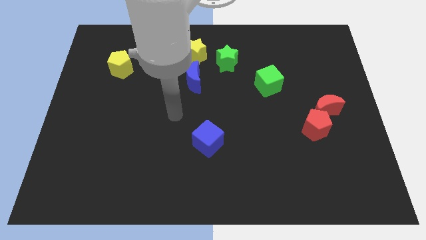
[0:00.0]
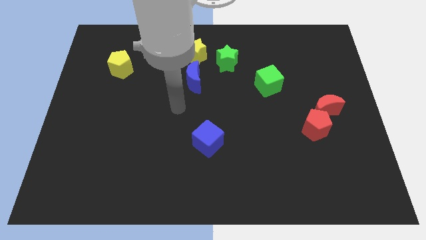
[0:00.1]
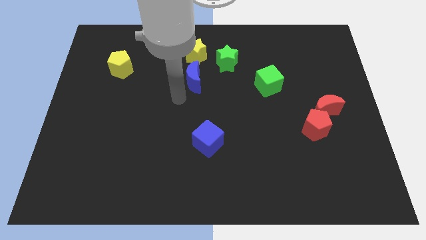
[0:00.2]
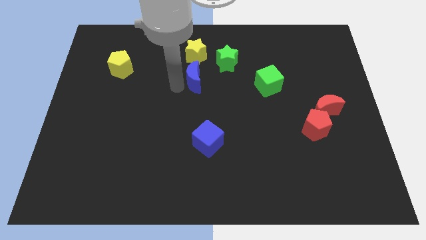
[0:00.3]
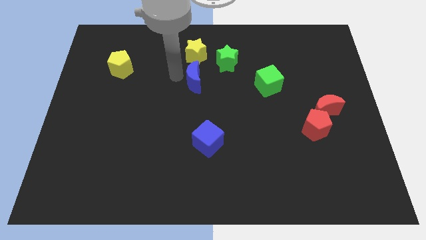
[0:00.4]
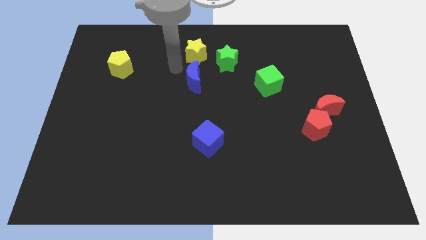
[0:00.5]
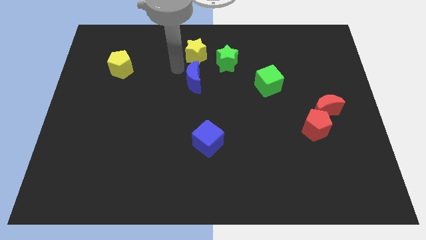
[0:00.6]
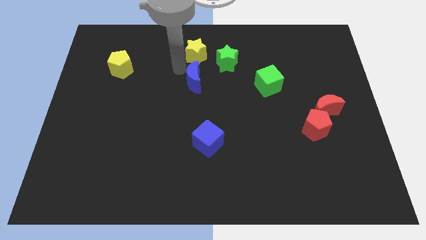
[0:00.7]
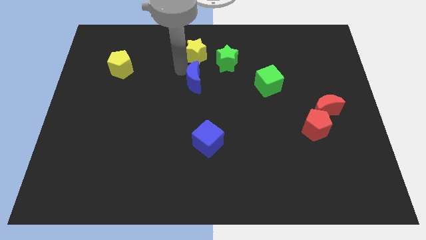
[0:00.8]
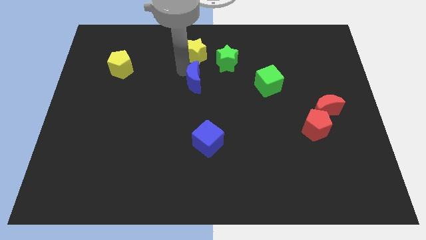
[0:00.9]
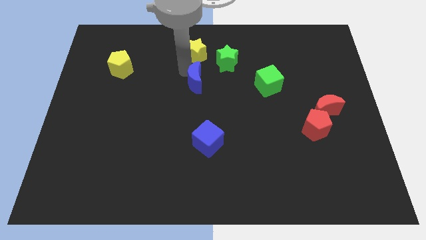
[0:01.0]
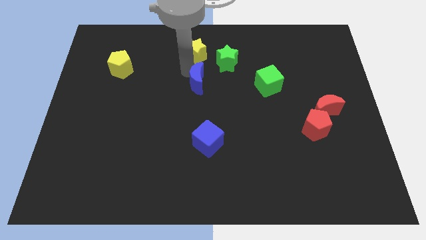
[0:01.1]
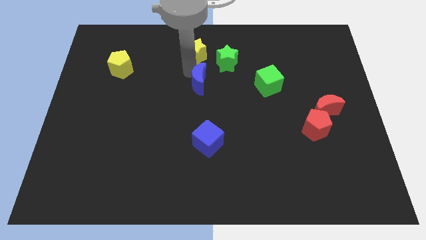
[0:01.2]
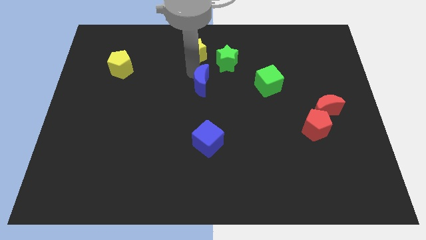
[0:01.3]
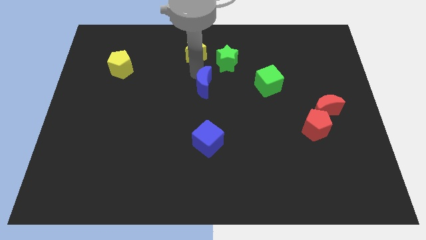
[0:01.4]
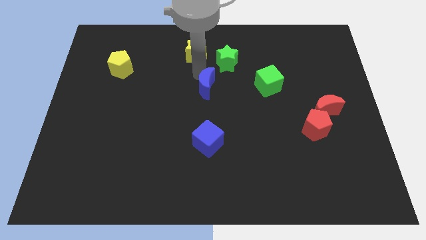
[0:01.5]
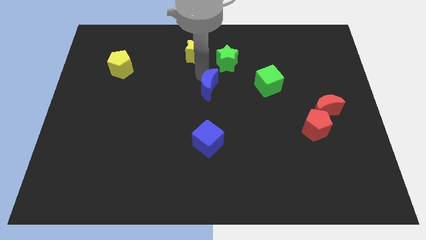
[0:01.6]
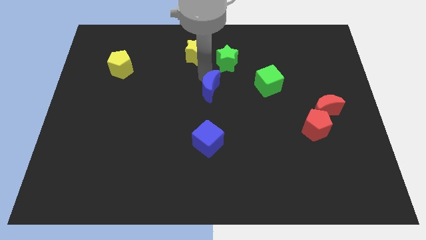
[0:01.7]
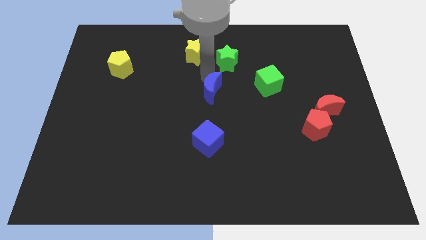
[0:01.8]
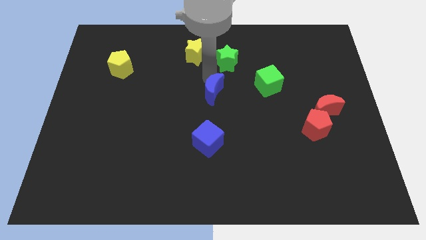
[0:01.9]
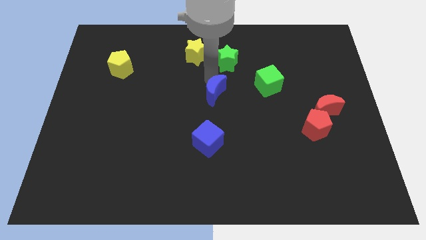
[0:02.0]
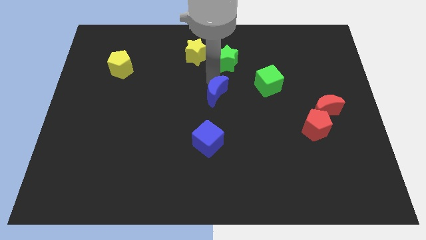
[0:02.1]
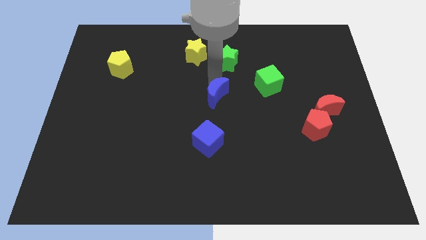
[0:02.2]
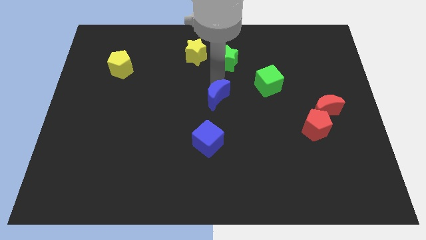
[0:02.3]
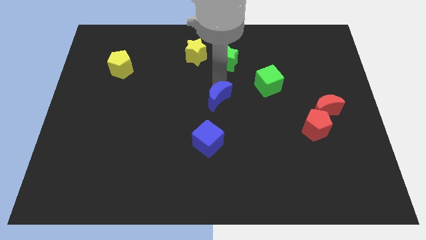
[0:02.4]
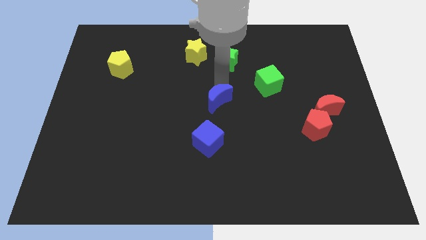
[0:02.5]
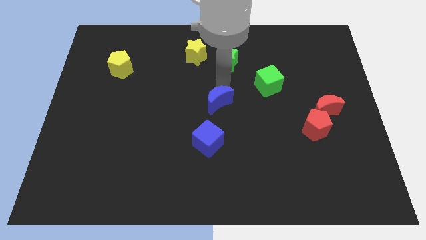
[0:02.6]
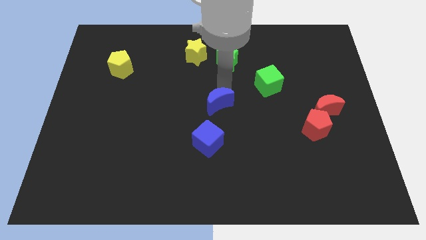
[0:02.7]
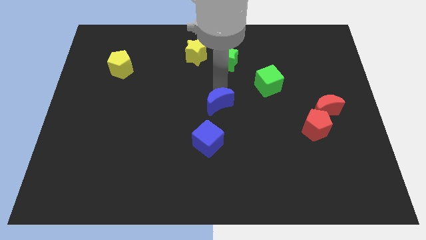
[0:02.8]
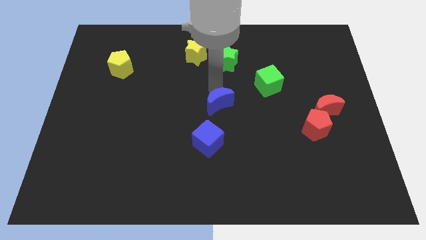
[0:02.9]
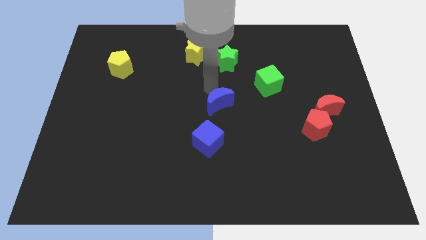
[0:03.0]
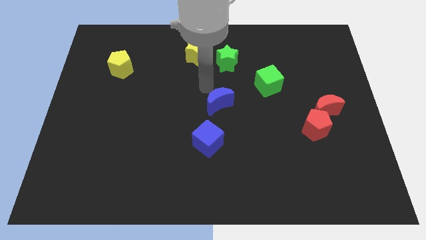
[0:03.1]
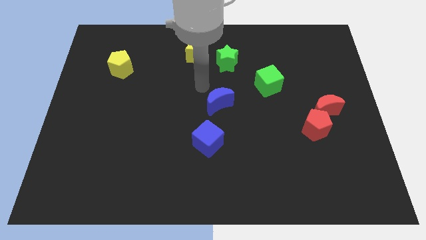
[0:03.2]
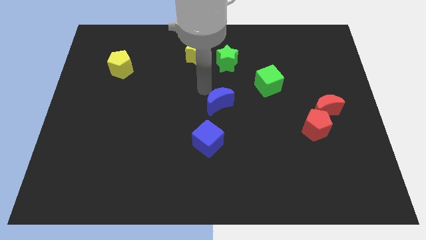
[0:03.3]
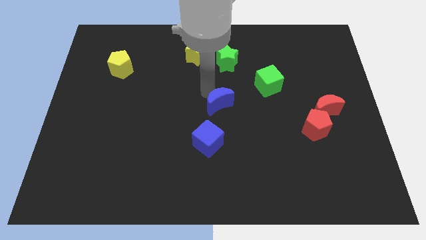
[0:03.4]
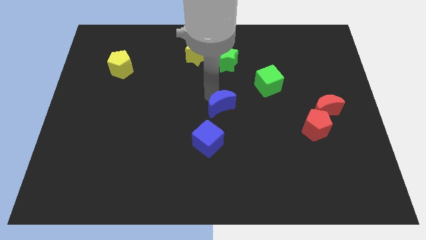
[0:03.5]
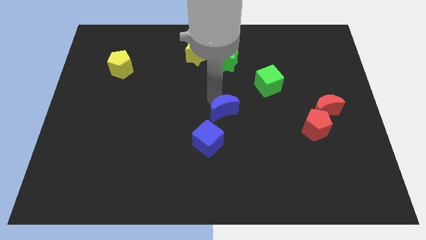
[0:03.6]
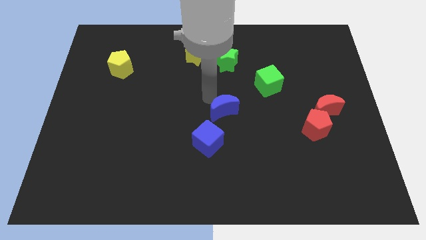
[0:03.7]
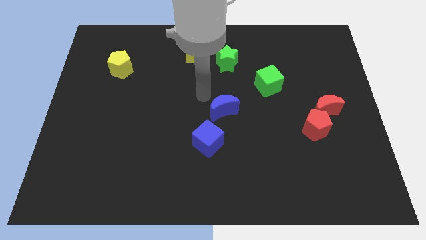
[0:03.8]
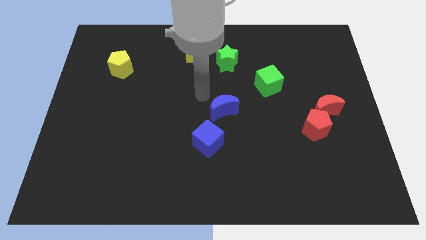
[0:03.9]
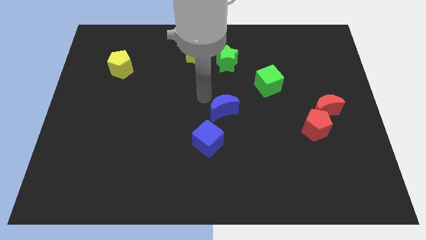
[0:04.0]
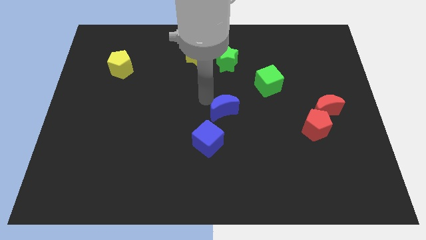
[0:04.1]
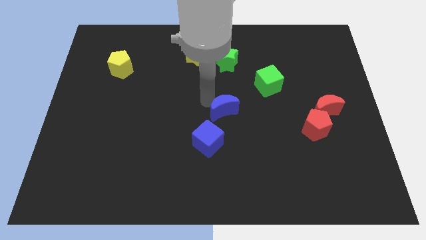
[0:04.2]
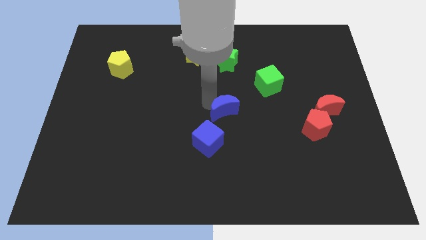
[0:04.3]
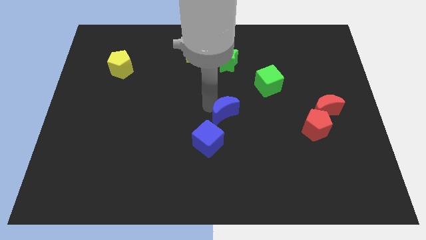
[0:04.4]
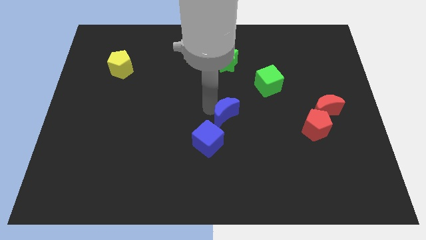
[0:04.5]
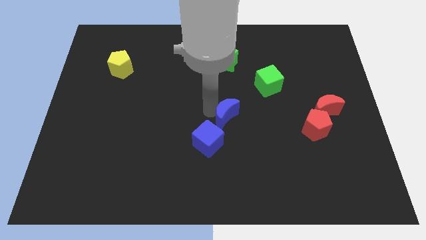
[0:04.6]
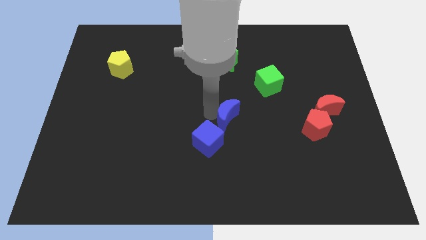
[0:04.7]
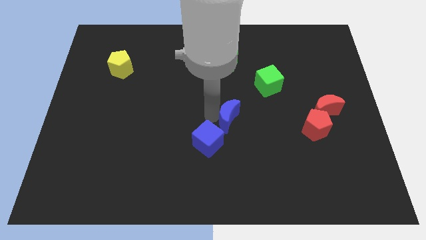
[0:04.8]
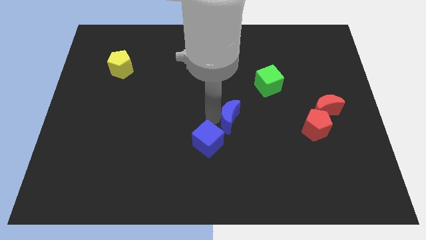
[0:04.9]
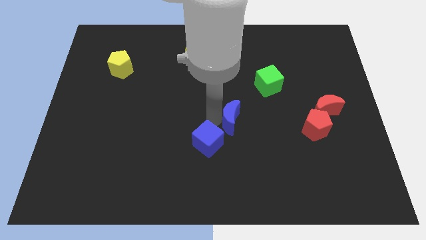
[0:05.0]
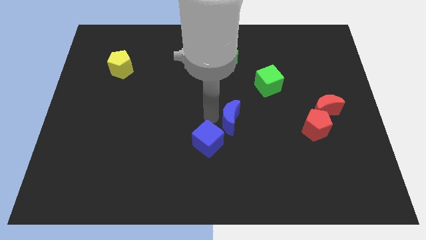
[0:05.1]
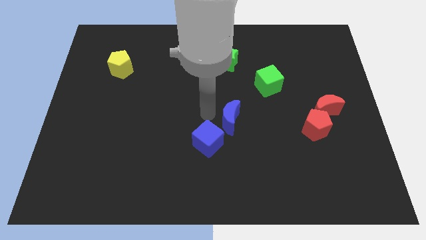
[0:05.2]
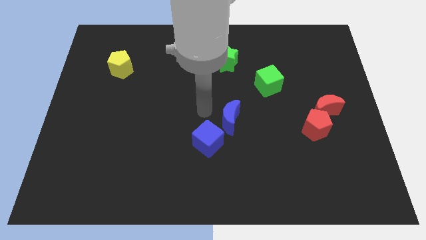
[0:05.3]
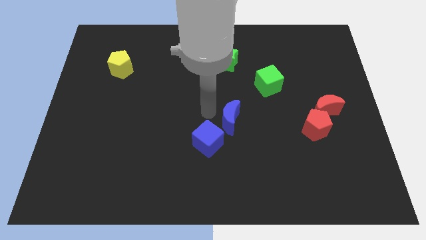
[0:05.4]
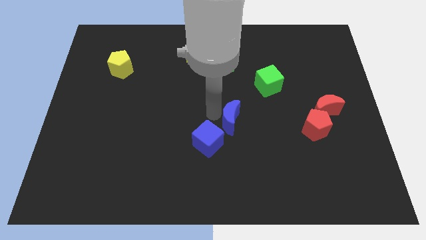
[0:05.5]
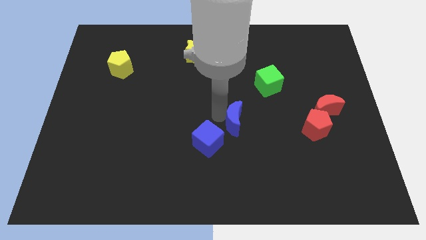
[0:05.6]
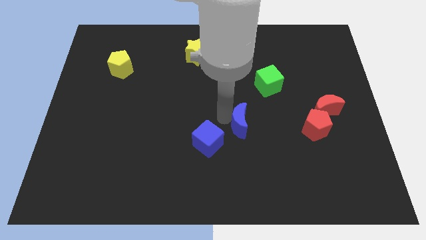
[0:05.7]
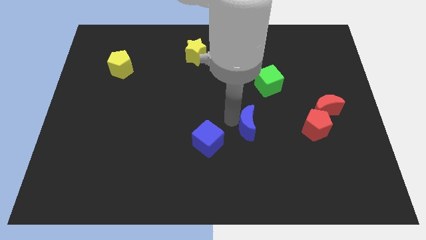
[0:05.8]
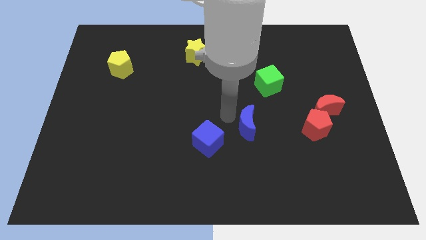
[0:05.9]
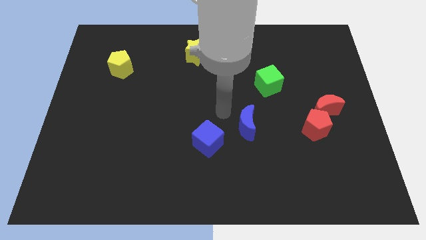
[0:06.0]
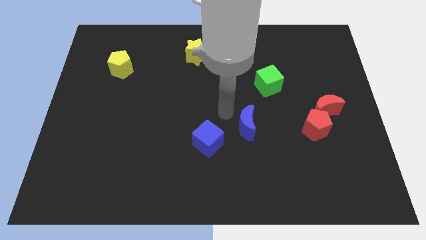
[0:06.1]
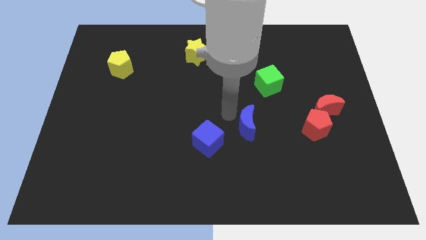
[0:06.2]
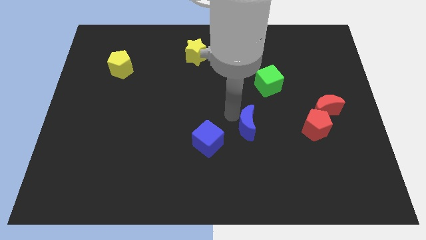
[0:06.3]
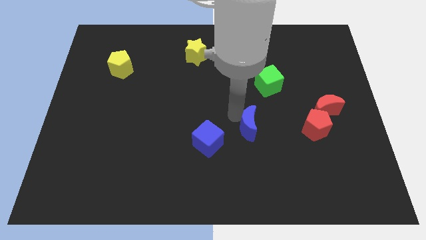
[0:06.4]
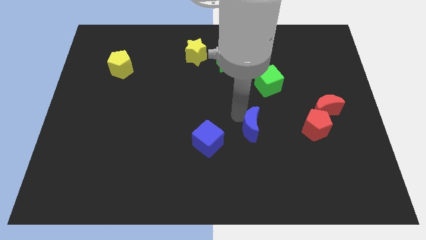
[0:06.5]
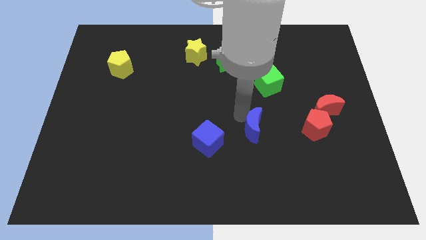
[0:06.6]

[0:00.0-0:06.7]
slide the blue moon down and right diagonally

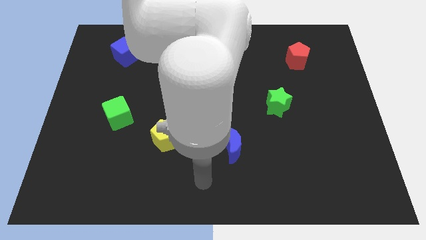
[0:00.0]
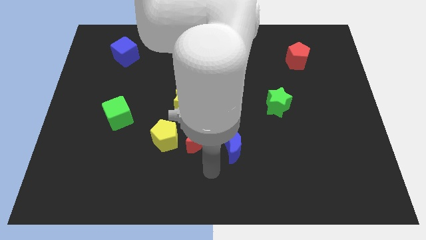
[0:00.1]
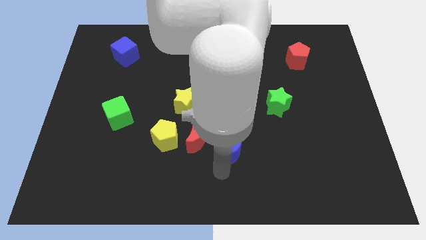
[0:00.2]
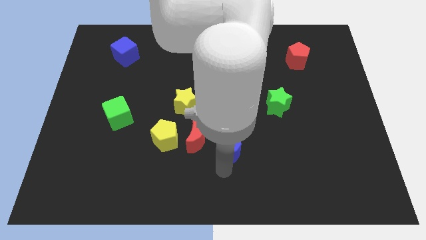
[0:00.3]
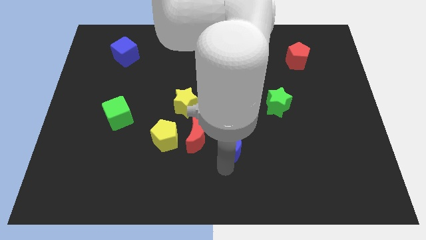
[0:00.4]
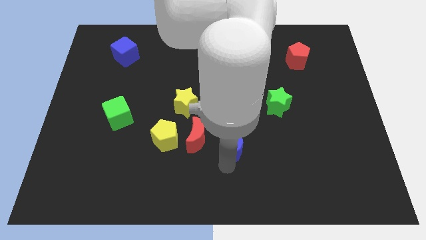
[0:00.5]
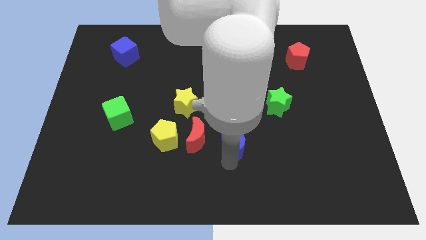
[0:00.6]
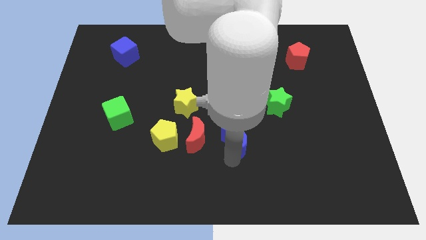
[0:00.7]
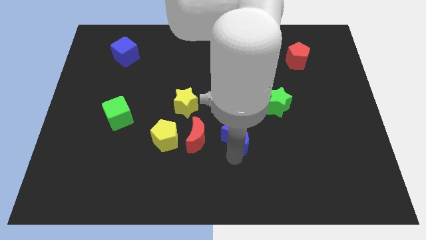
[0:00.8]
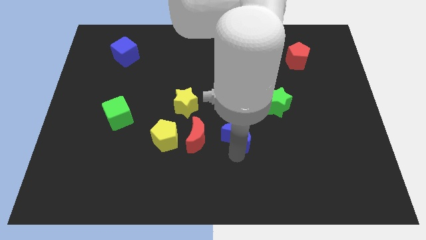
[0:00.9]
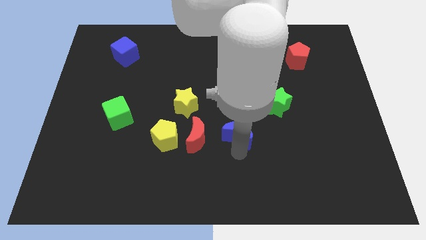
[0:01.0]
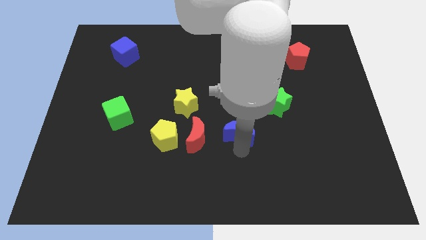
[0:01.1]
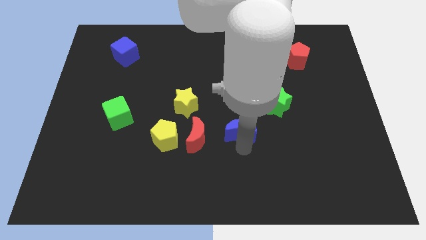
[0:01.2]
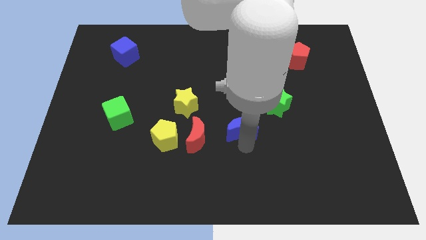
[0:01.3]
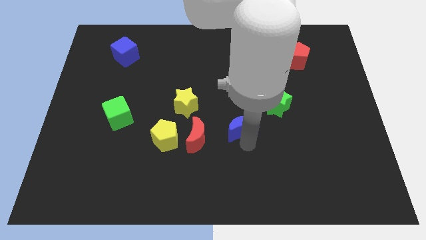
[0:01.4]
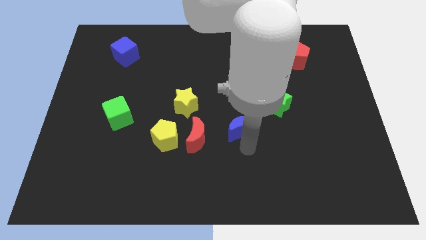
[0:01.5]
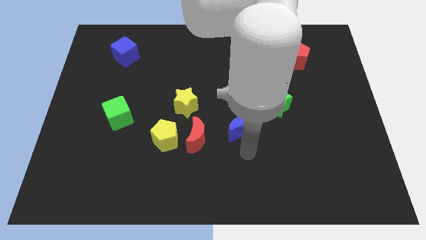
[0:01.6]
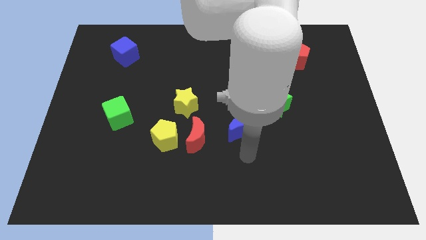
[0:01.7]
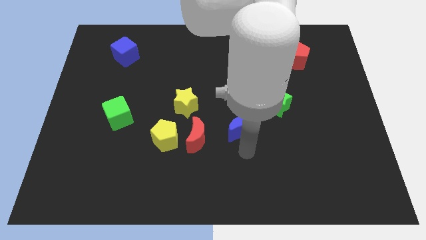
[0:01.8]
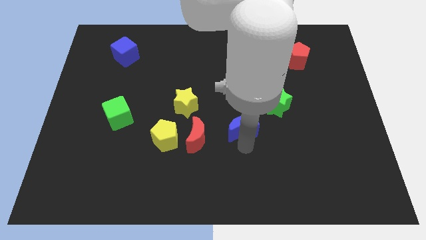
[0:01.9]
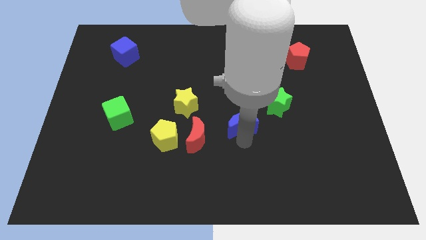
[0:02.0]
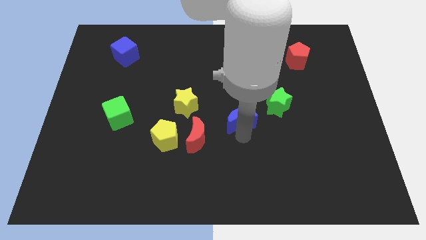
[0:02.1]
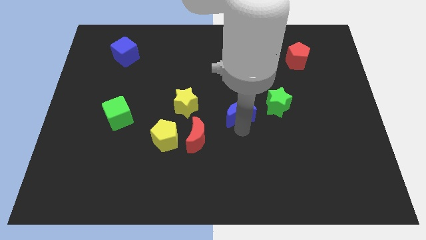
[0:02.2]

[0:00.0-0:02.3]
slightly move the blue moon up
